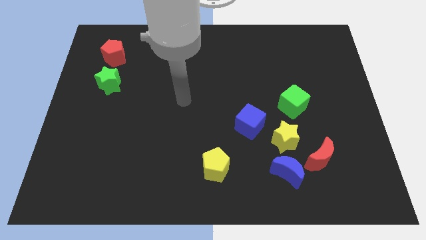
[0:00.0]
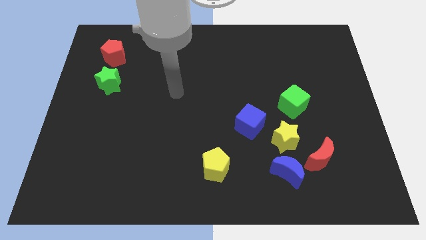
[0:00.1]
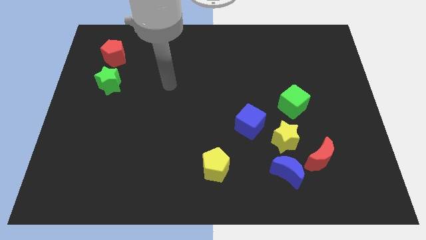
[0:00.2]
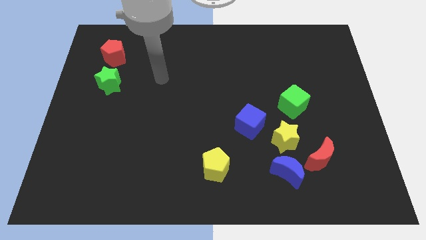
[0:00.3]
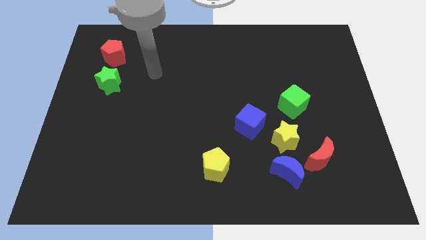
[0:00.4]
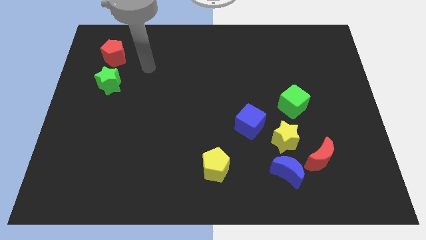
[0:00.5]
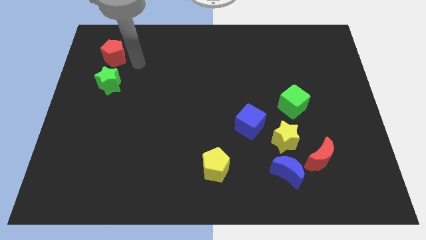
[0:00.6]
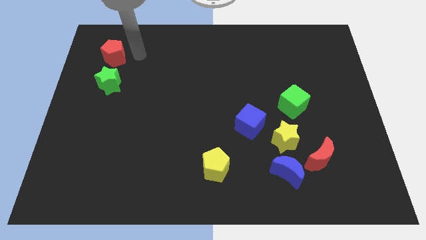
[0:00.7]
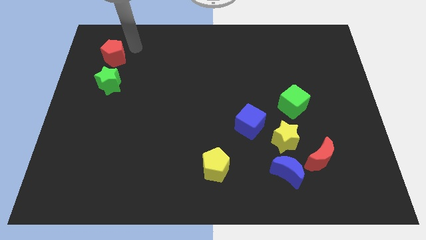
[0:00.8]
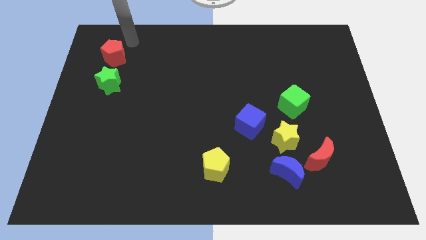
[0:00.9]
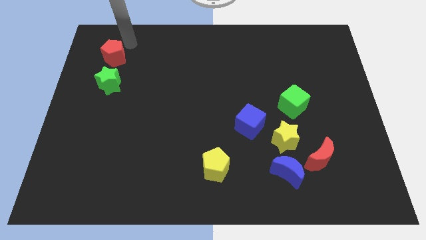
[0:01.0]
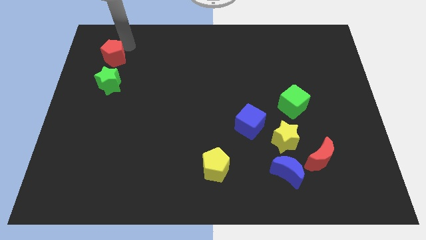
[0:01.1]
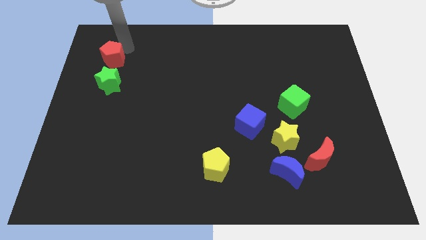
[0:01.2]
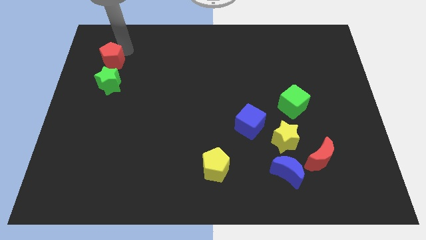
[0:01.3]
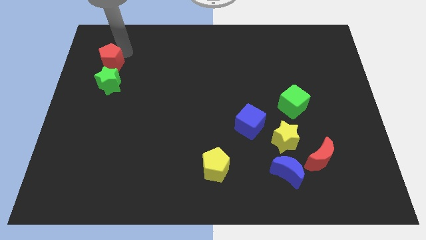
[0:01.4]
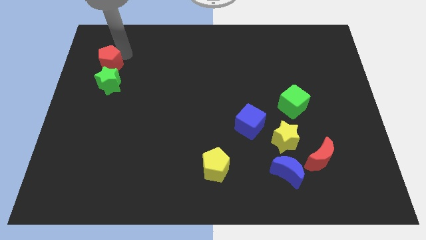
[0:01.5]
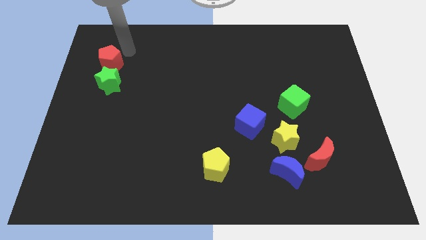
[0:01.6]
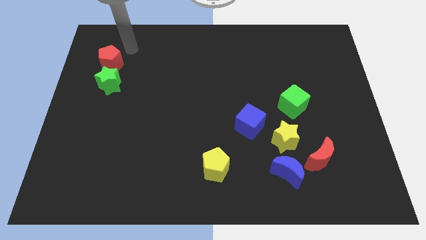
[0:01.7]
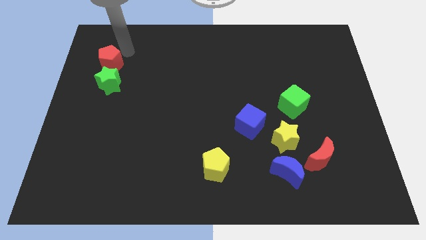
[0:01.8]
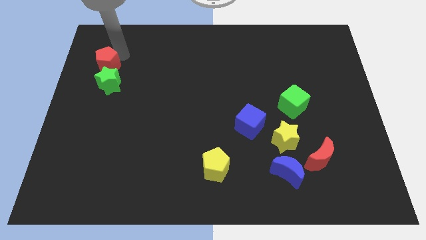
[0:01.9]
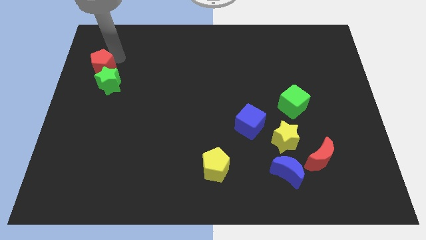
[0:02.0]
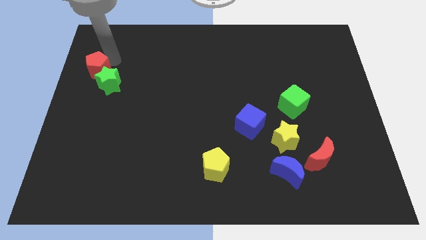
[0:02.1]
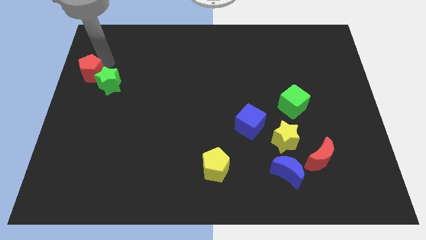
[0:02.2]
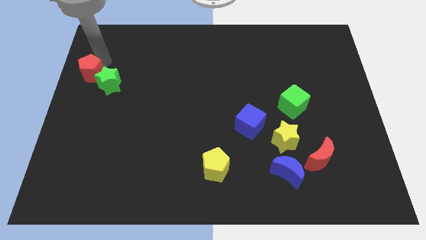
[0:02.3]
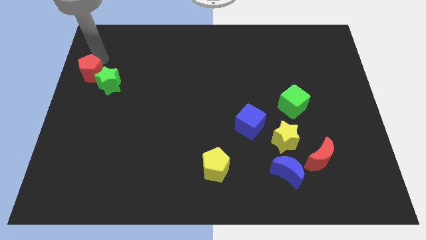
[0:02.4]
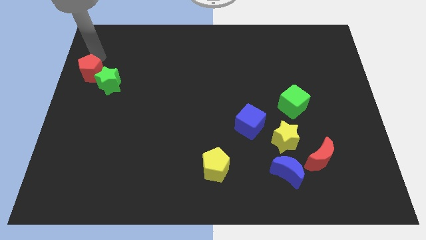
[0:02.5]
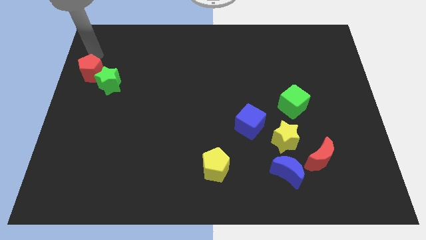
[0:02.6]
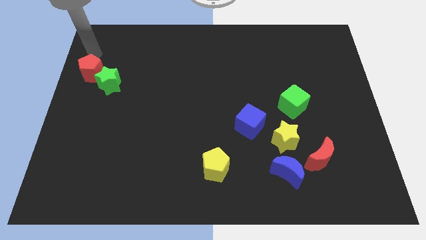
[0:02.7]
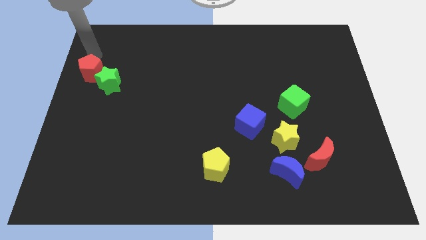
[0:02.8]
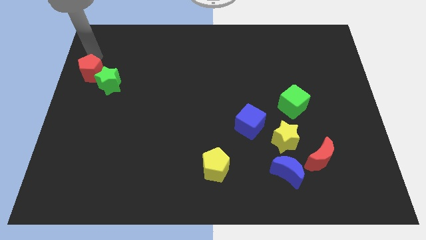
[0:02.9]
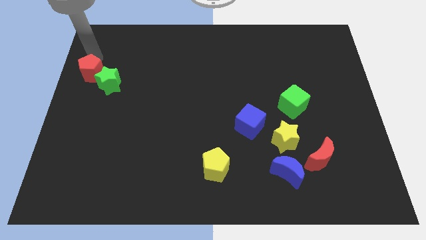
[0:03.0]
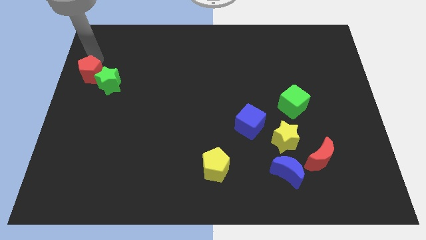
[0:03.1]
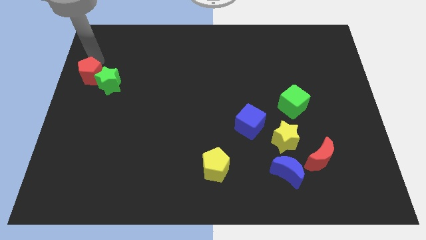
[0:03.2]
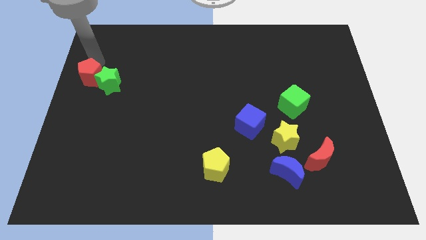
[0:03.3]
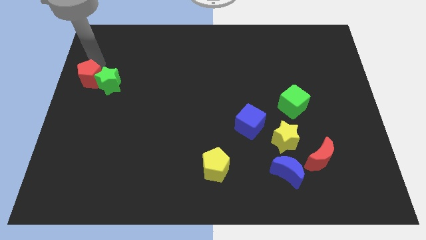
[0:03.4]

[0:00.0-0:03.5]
move the red pentagon slightly down

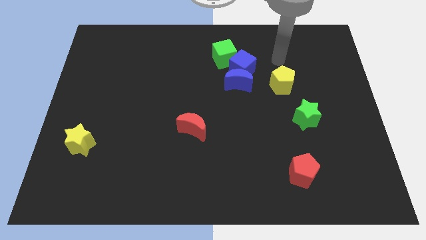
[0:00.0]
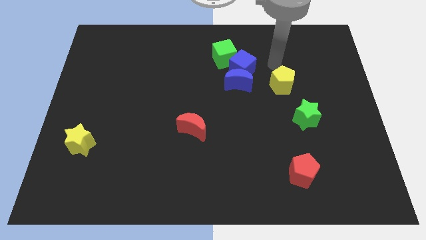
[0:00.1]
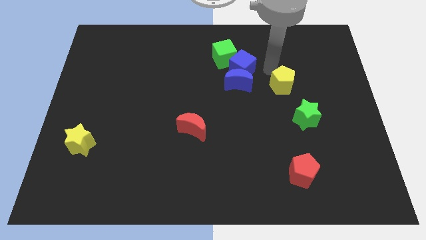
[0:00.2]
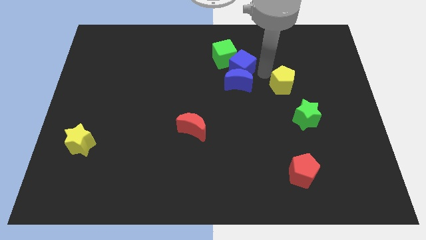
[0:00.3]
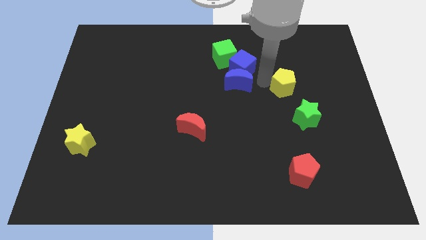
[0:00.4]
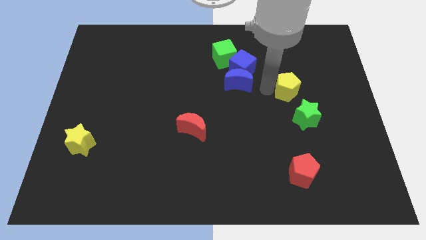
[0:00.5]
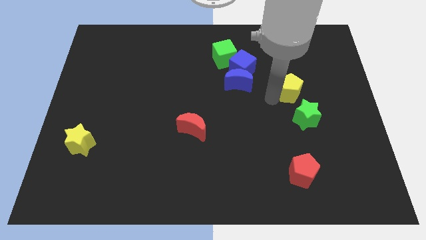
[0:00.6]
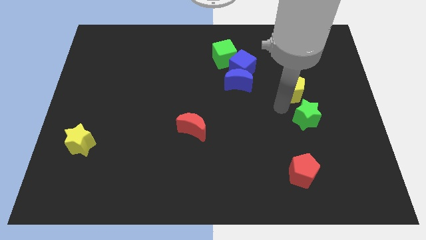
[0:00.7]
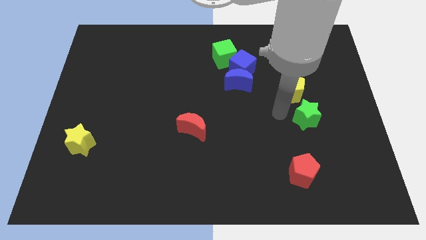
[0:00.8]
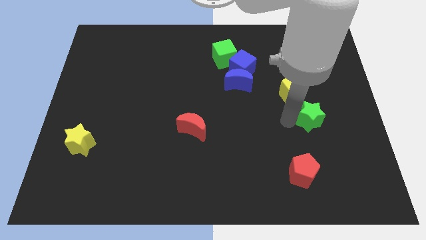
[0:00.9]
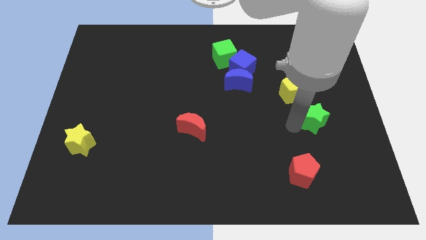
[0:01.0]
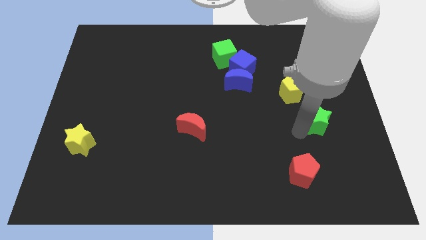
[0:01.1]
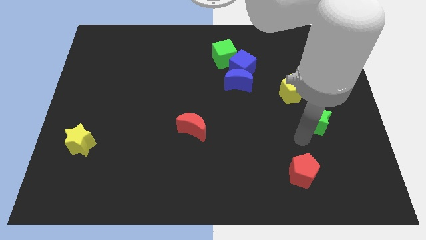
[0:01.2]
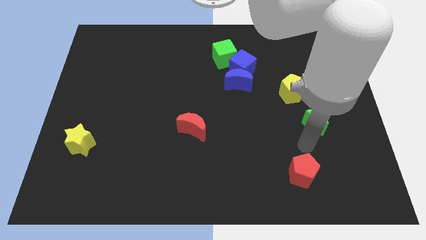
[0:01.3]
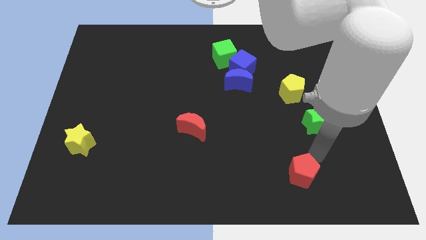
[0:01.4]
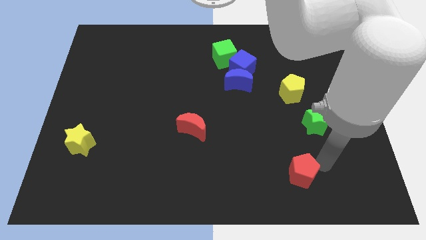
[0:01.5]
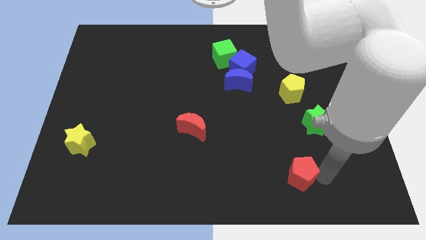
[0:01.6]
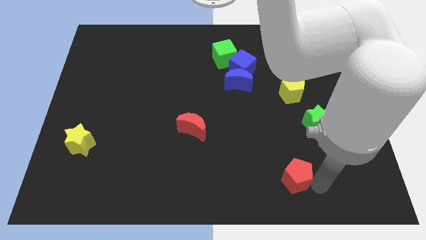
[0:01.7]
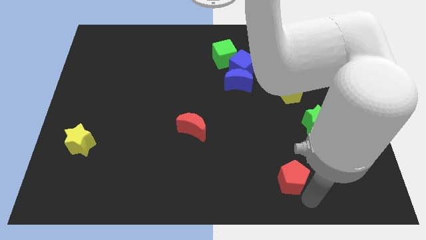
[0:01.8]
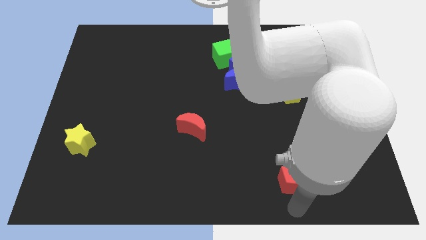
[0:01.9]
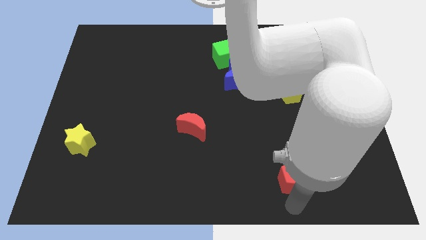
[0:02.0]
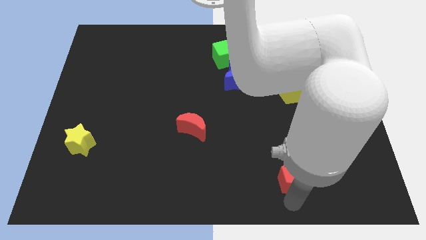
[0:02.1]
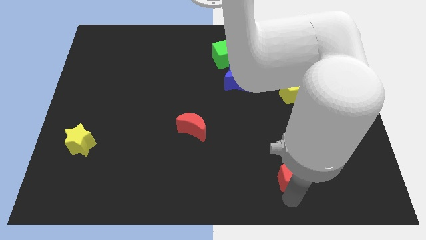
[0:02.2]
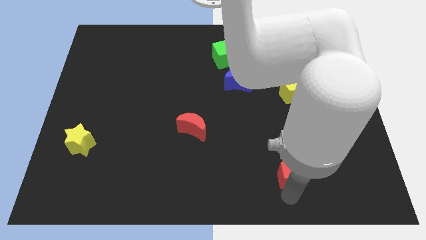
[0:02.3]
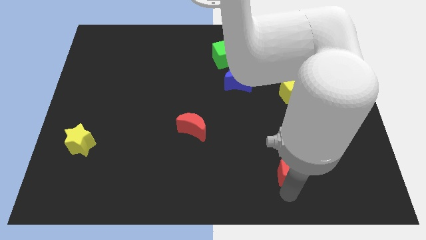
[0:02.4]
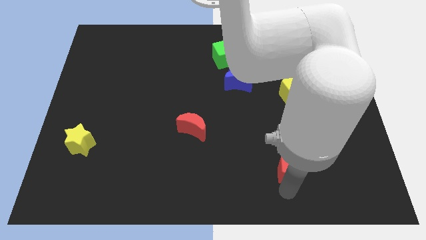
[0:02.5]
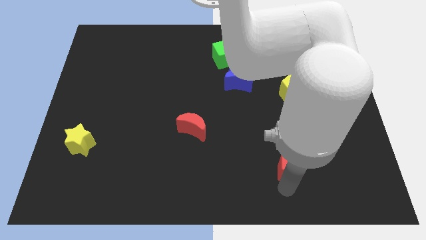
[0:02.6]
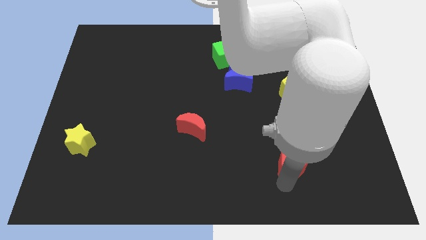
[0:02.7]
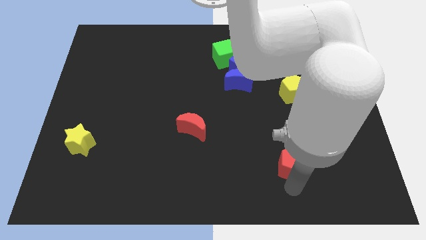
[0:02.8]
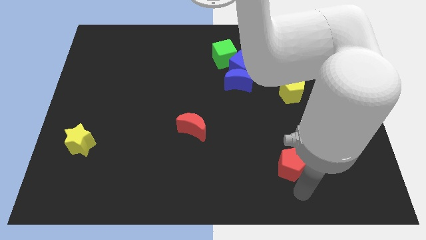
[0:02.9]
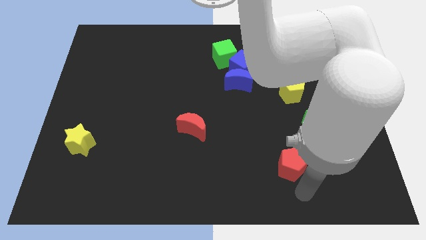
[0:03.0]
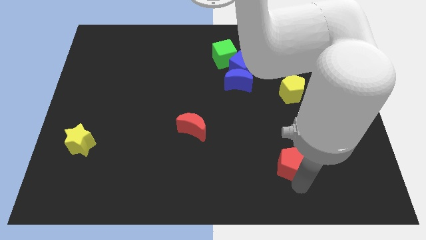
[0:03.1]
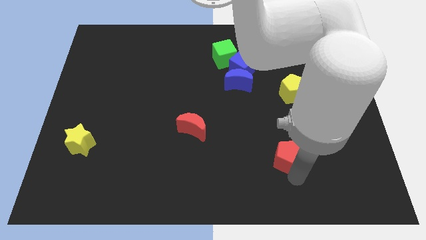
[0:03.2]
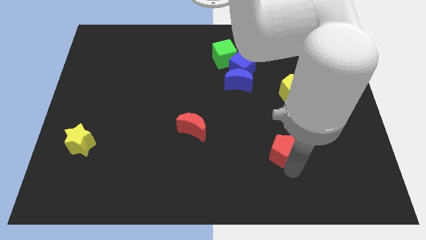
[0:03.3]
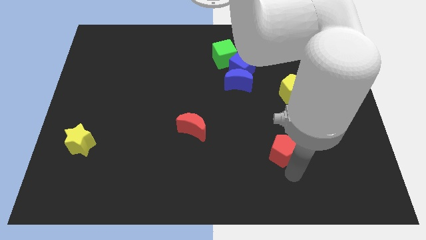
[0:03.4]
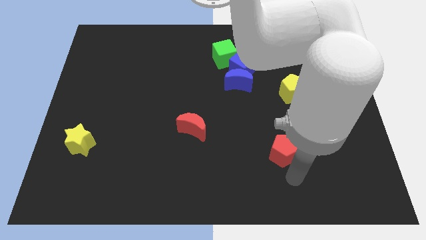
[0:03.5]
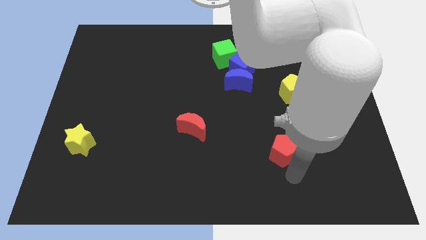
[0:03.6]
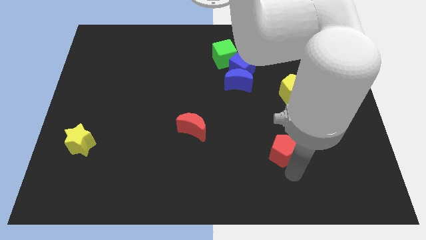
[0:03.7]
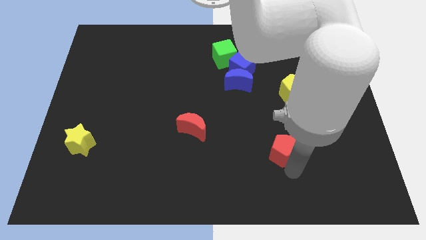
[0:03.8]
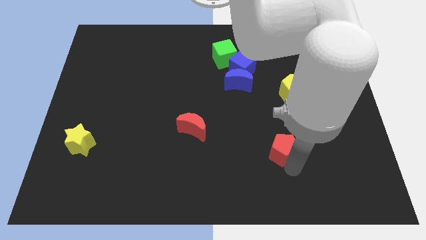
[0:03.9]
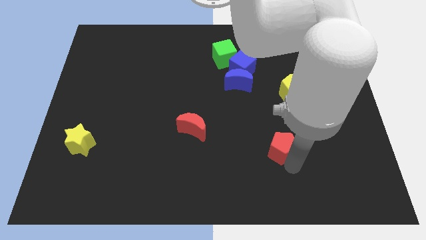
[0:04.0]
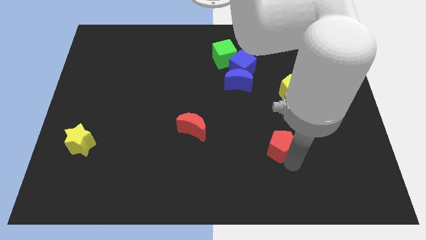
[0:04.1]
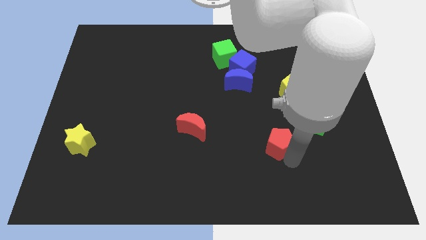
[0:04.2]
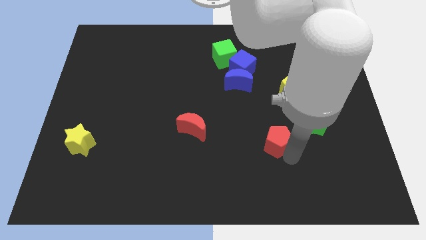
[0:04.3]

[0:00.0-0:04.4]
slightly move the red pentagon upwards

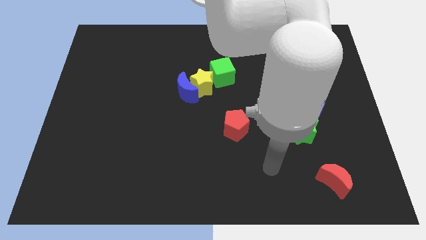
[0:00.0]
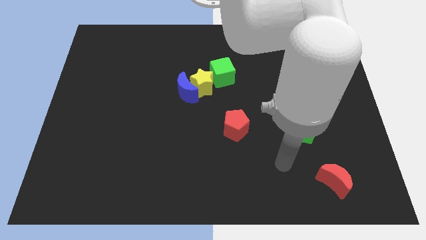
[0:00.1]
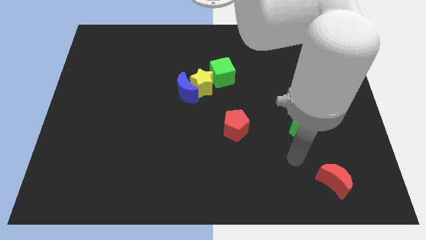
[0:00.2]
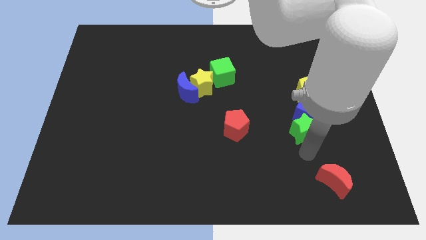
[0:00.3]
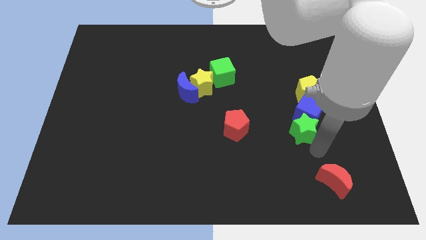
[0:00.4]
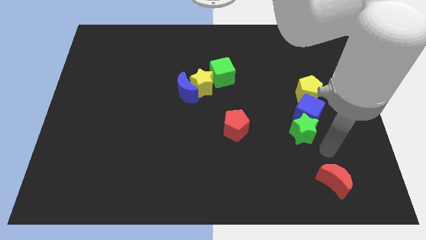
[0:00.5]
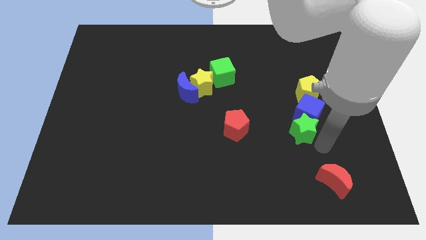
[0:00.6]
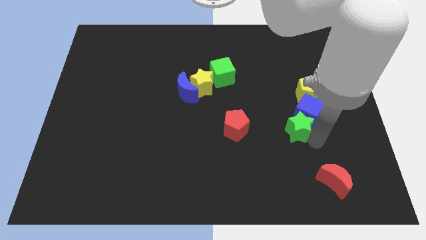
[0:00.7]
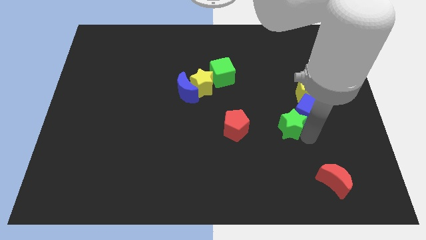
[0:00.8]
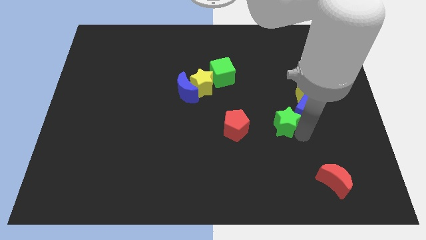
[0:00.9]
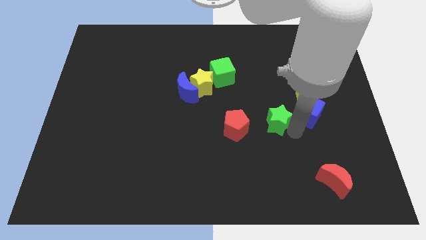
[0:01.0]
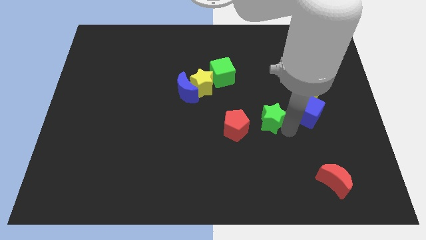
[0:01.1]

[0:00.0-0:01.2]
slightly push the green star up and then to the left
